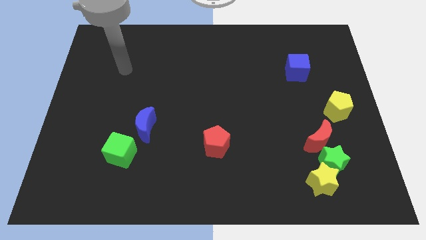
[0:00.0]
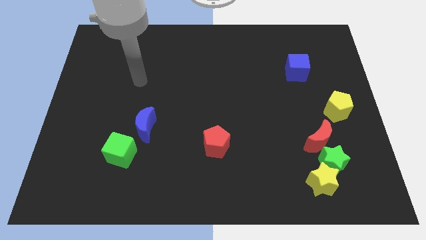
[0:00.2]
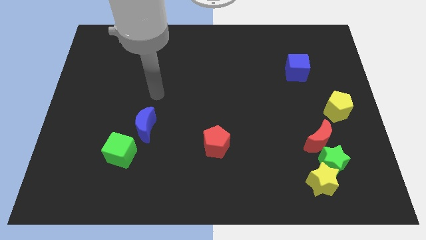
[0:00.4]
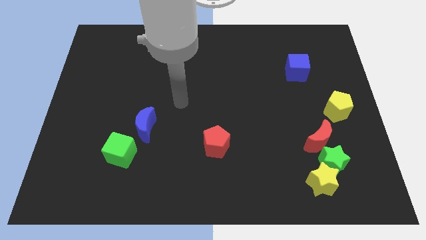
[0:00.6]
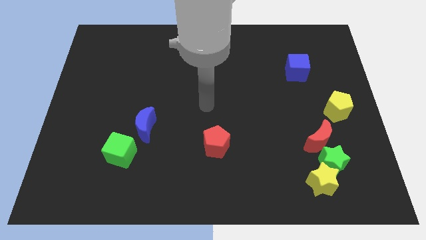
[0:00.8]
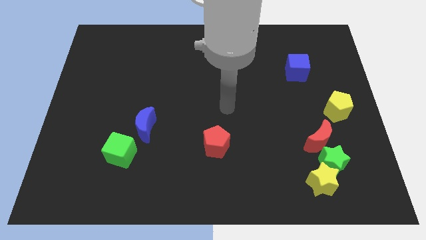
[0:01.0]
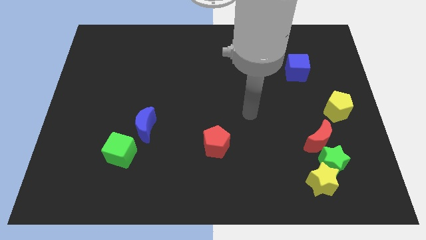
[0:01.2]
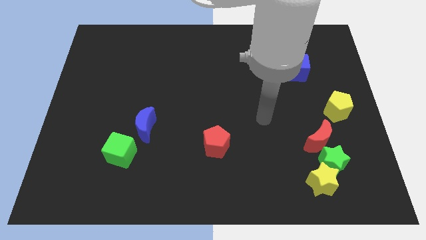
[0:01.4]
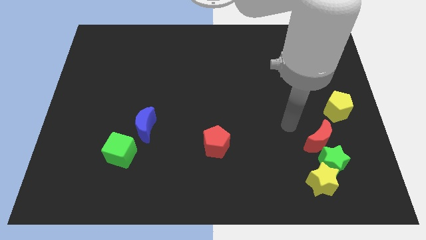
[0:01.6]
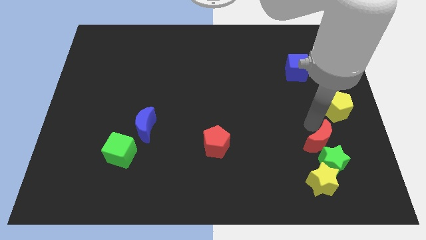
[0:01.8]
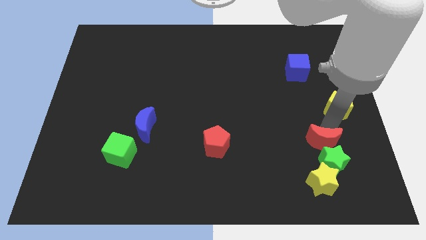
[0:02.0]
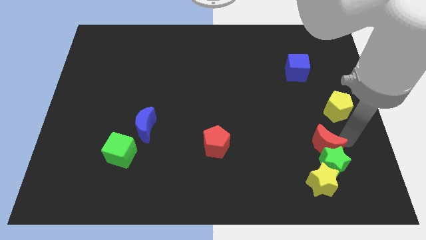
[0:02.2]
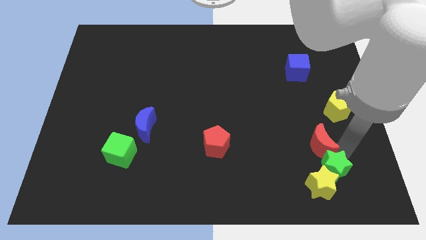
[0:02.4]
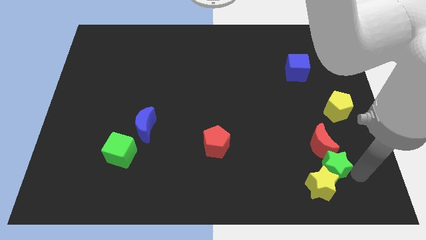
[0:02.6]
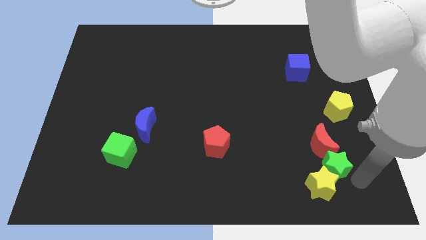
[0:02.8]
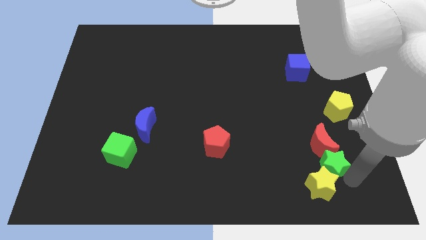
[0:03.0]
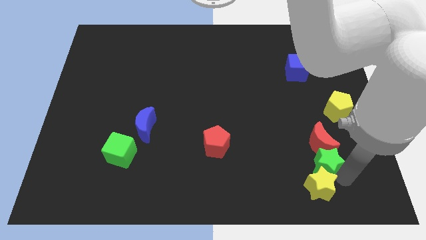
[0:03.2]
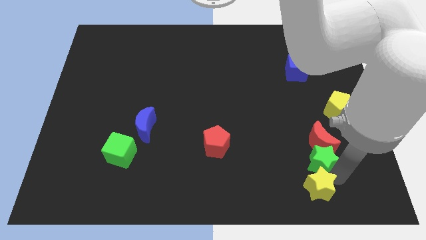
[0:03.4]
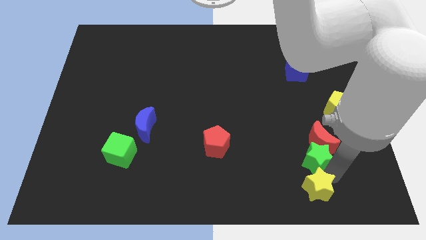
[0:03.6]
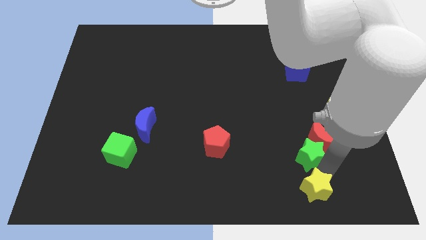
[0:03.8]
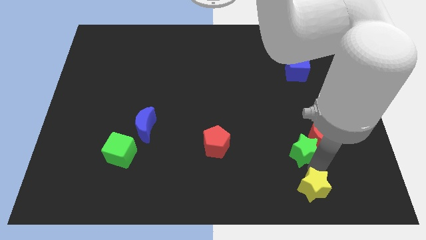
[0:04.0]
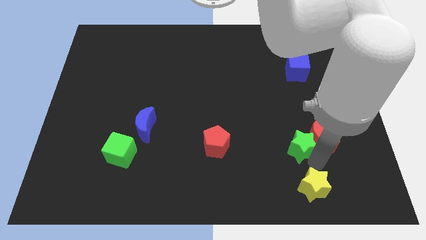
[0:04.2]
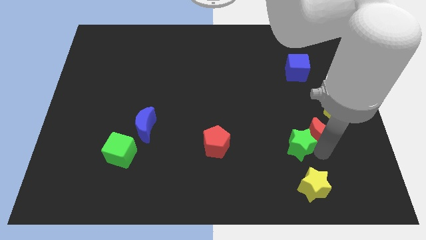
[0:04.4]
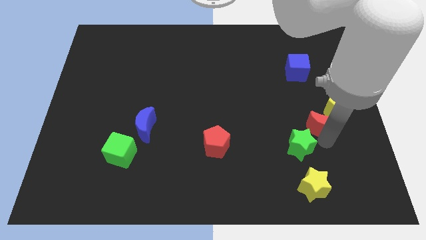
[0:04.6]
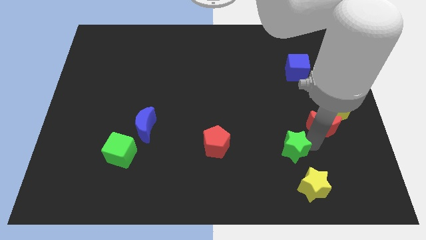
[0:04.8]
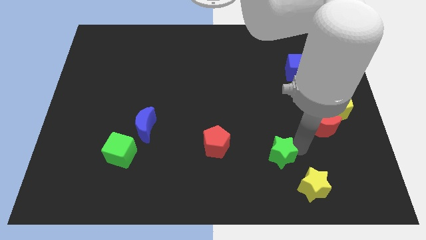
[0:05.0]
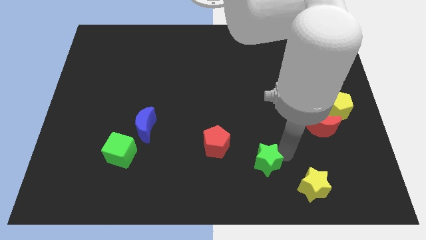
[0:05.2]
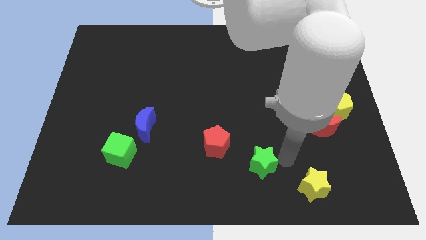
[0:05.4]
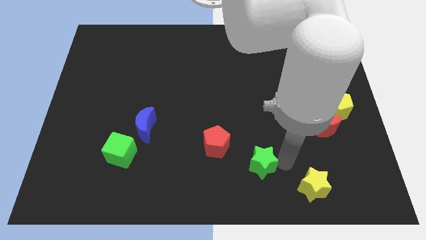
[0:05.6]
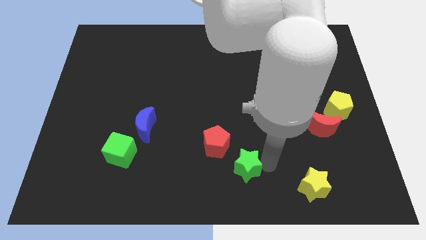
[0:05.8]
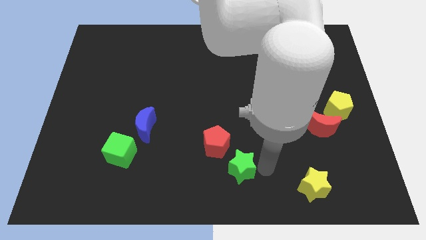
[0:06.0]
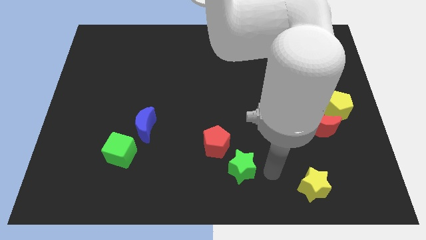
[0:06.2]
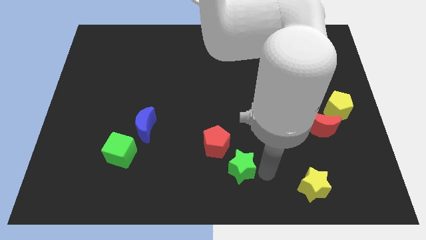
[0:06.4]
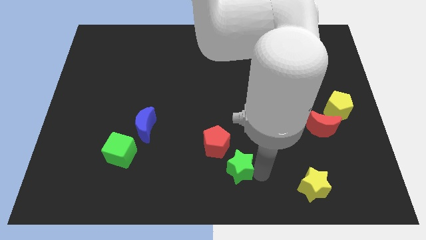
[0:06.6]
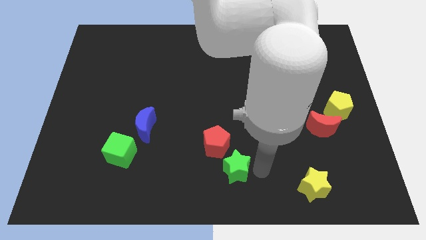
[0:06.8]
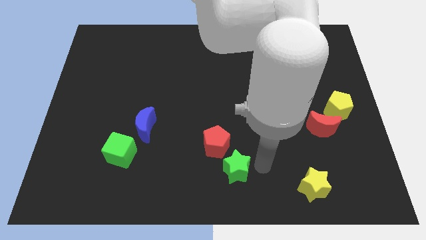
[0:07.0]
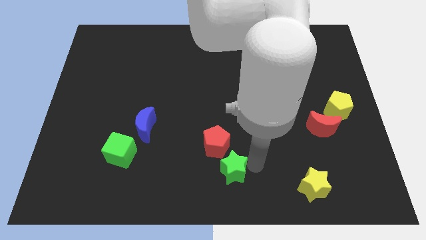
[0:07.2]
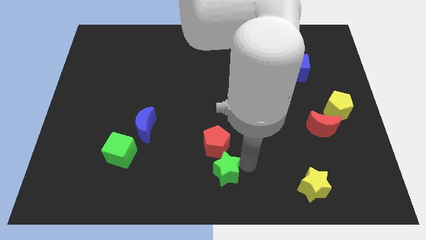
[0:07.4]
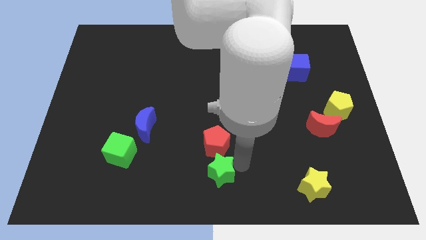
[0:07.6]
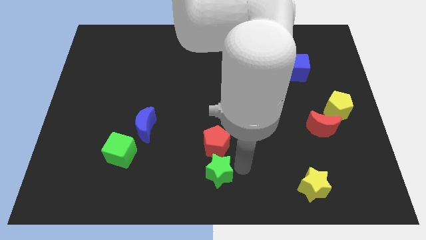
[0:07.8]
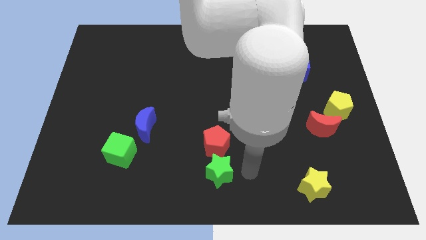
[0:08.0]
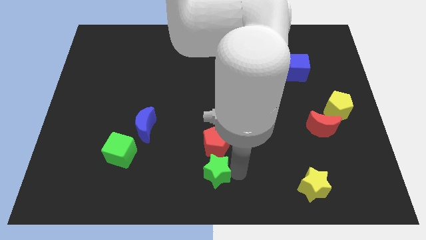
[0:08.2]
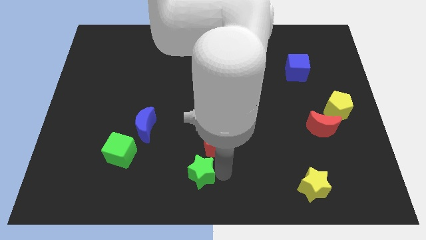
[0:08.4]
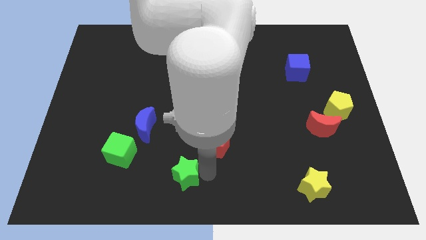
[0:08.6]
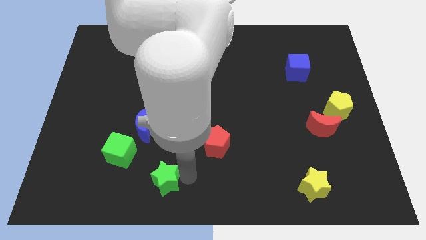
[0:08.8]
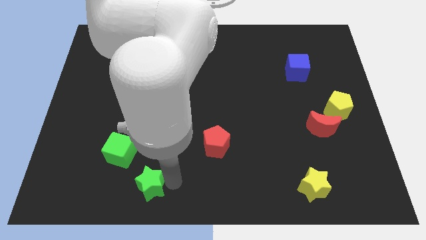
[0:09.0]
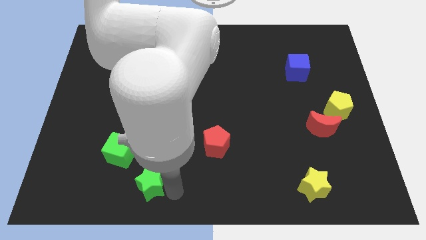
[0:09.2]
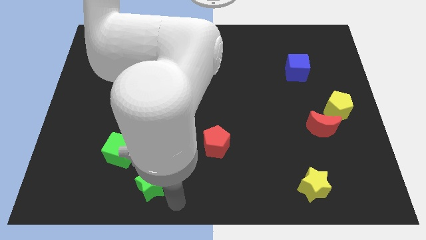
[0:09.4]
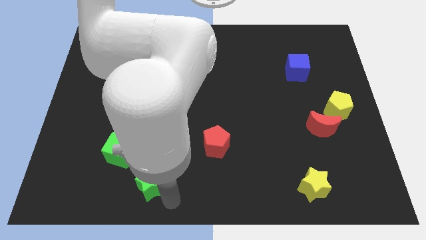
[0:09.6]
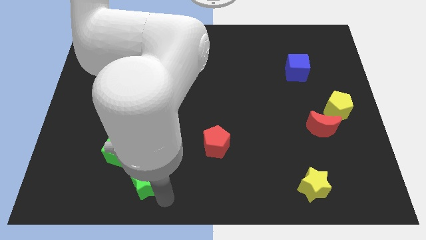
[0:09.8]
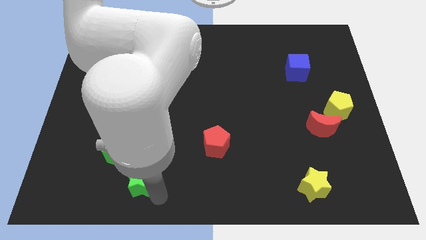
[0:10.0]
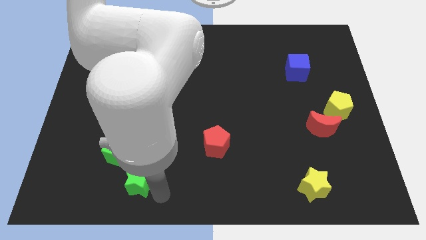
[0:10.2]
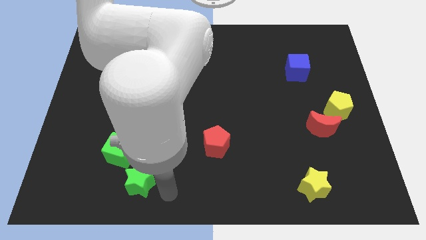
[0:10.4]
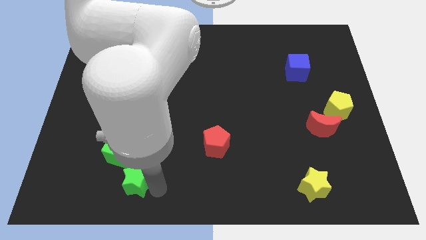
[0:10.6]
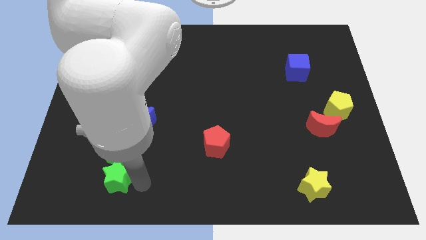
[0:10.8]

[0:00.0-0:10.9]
push the green star to the bottom left of the green cube

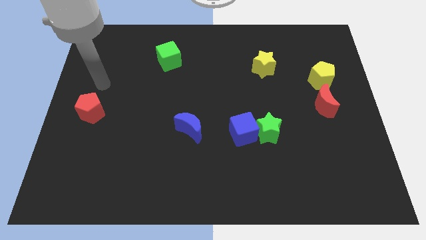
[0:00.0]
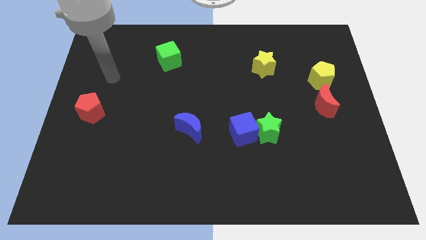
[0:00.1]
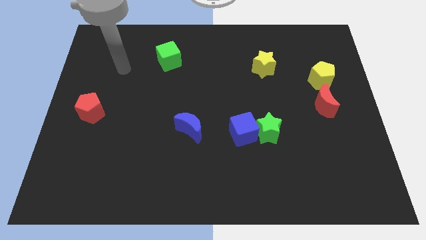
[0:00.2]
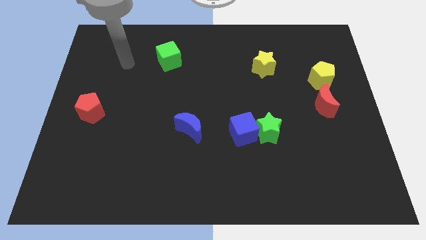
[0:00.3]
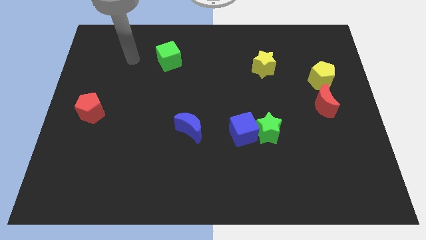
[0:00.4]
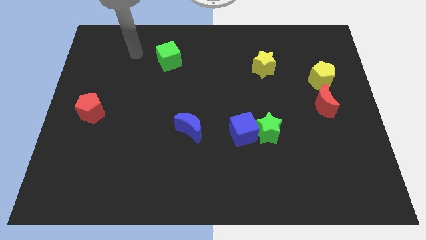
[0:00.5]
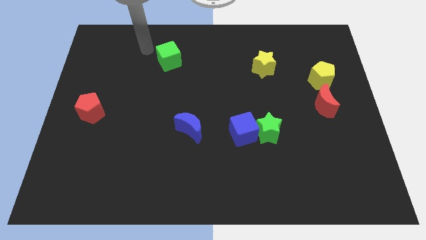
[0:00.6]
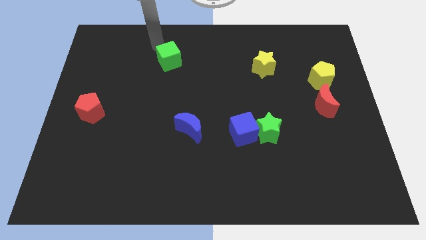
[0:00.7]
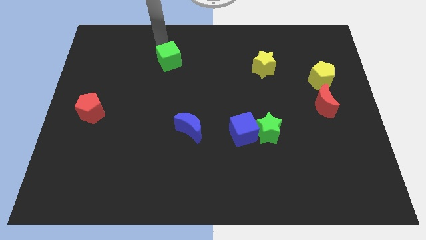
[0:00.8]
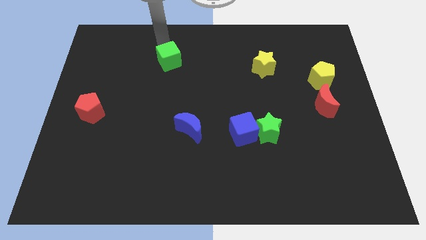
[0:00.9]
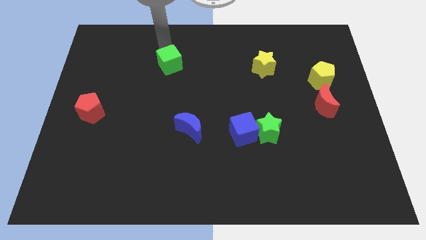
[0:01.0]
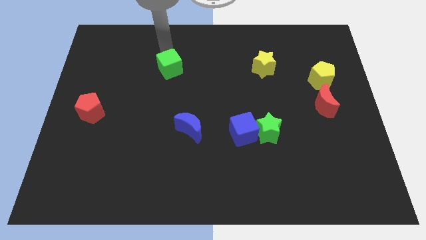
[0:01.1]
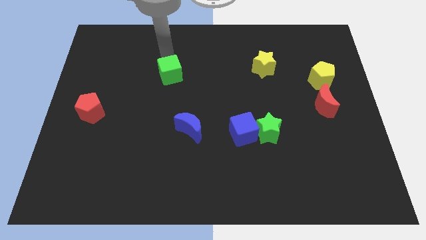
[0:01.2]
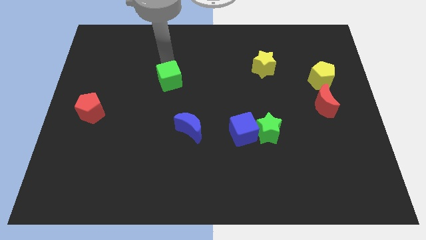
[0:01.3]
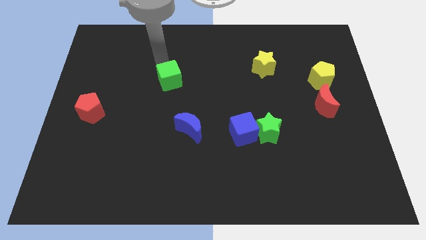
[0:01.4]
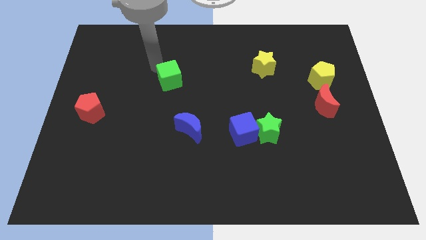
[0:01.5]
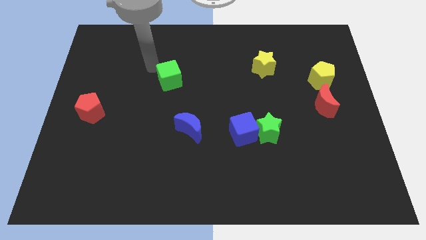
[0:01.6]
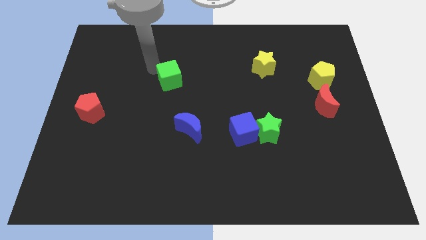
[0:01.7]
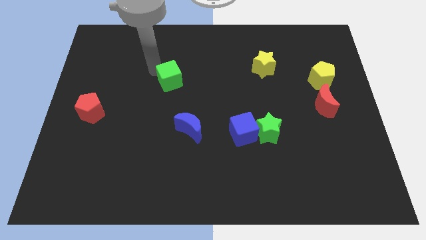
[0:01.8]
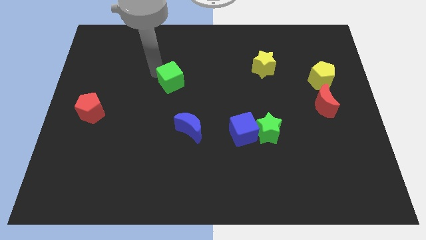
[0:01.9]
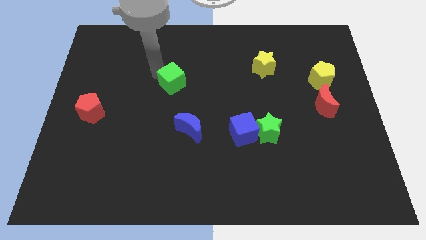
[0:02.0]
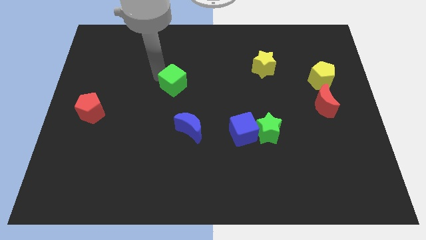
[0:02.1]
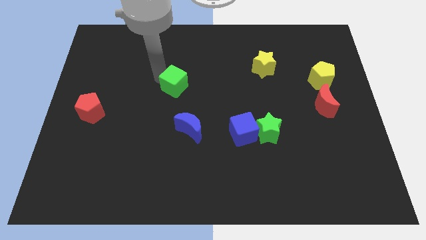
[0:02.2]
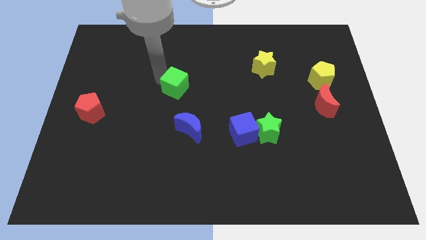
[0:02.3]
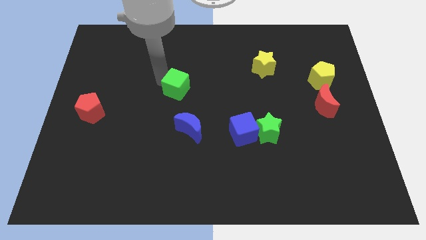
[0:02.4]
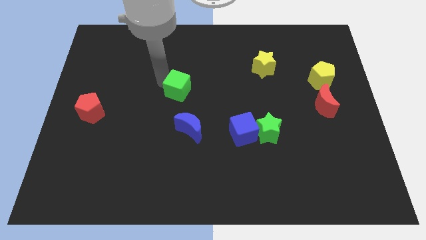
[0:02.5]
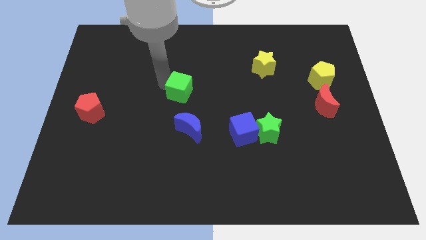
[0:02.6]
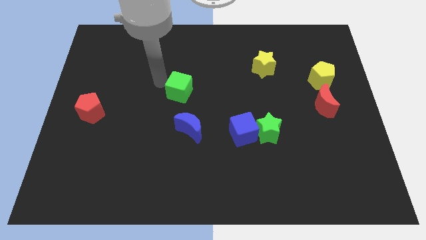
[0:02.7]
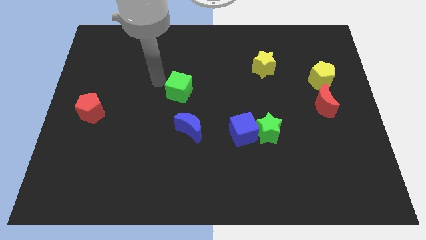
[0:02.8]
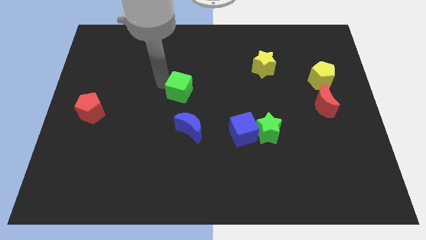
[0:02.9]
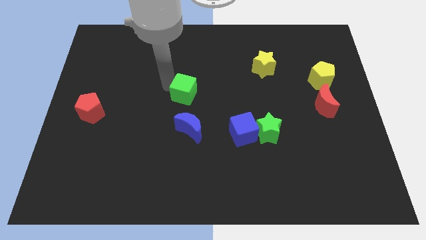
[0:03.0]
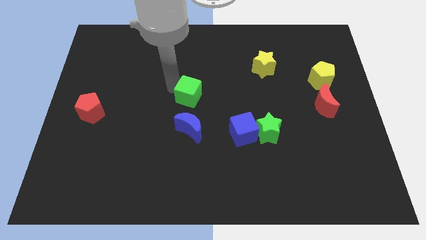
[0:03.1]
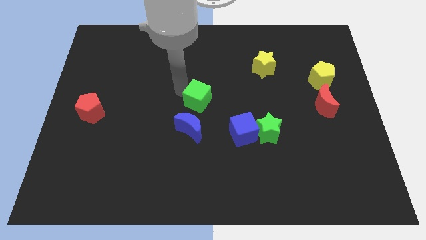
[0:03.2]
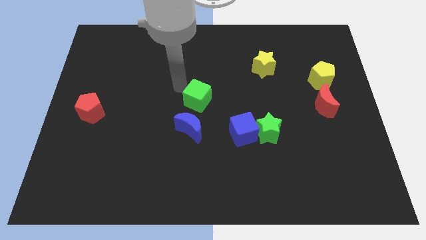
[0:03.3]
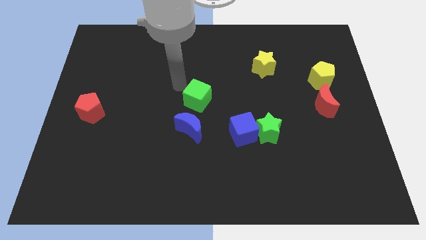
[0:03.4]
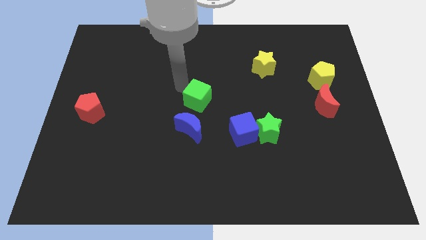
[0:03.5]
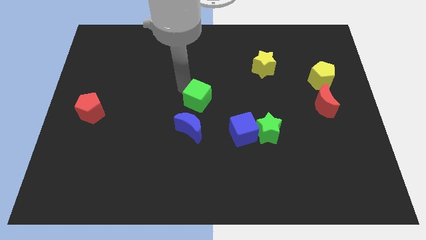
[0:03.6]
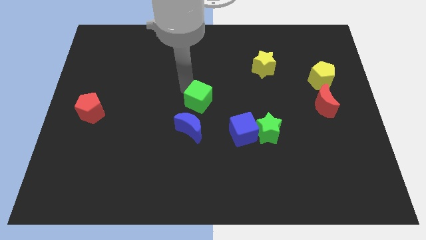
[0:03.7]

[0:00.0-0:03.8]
slide the green cube to the top right of the blue moon
